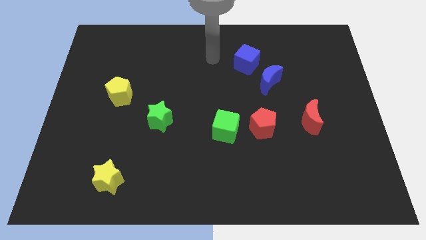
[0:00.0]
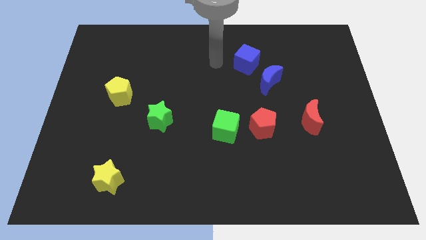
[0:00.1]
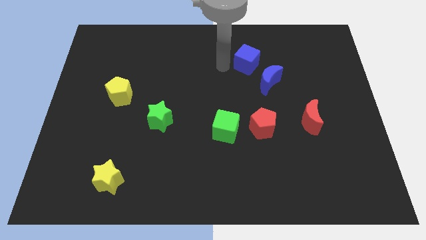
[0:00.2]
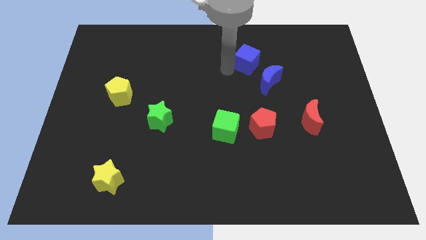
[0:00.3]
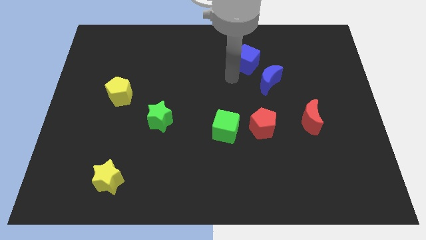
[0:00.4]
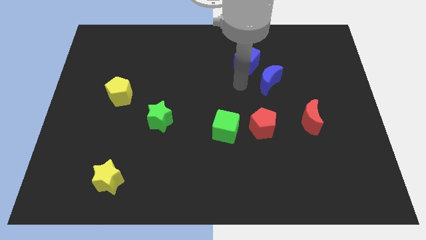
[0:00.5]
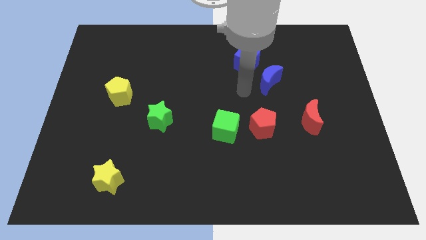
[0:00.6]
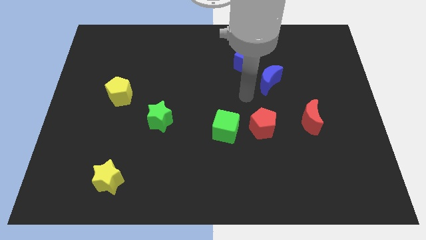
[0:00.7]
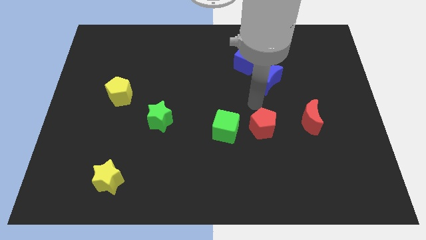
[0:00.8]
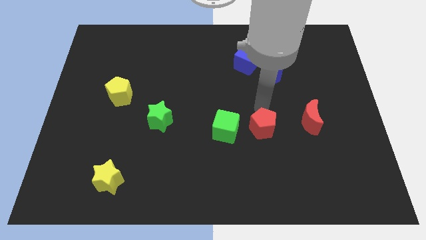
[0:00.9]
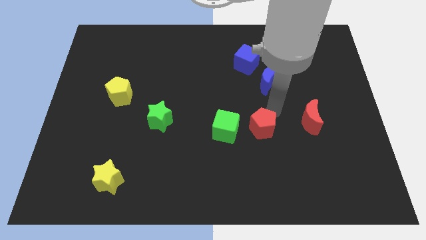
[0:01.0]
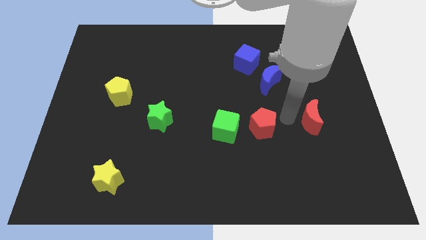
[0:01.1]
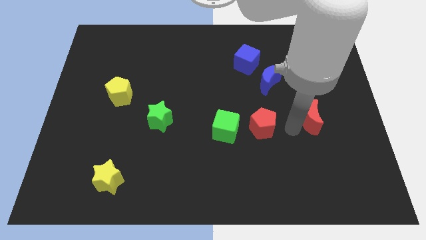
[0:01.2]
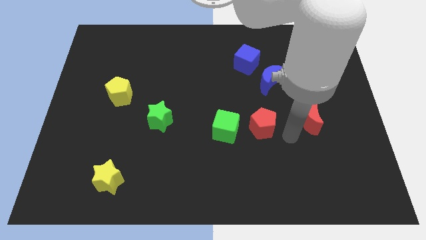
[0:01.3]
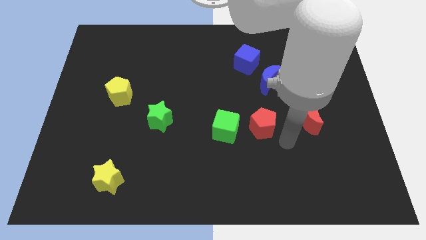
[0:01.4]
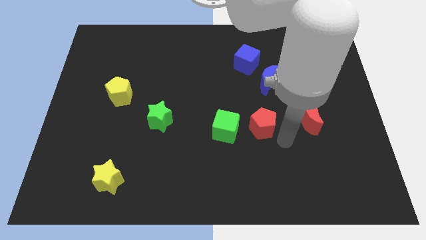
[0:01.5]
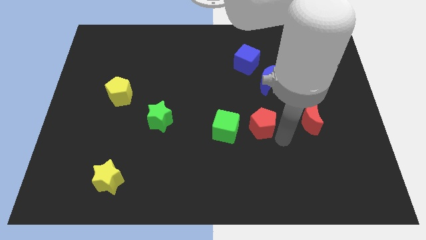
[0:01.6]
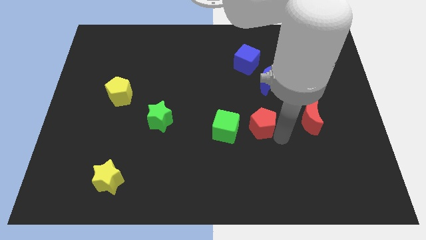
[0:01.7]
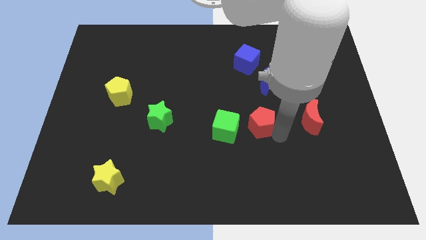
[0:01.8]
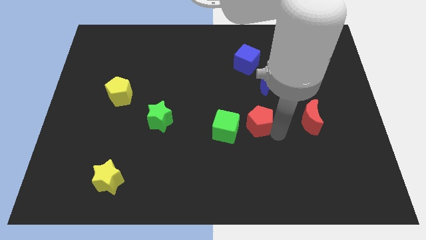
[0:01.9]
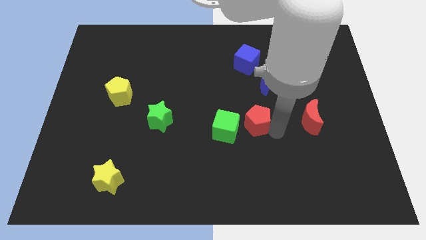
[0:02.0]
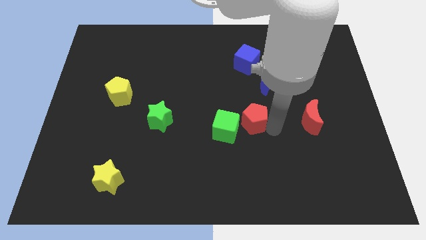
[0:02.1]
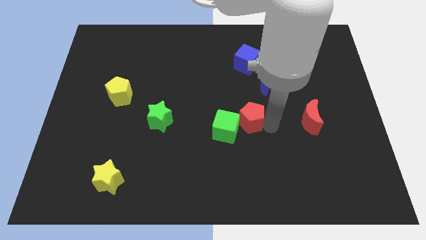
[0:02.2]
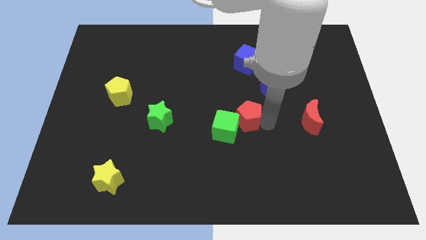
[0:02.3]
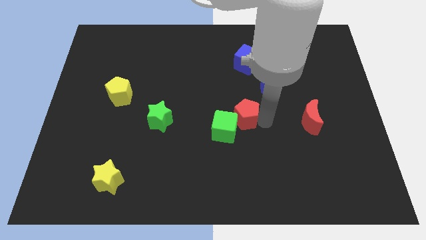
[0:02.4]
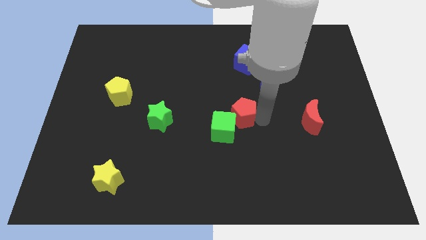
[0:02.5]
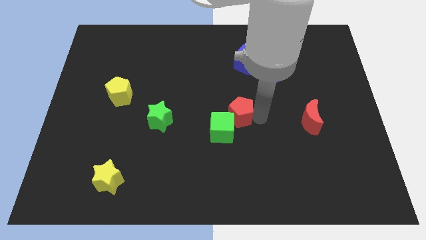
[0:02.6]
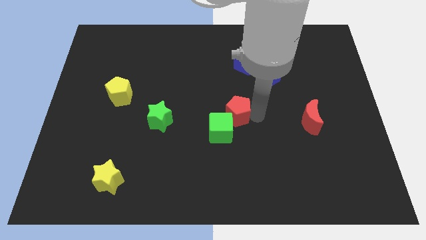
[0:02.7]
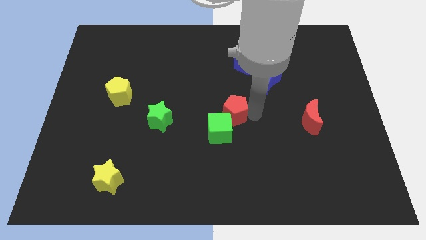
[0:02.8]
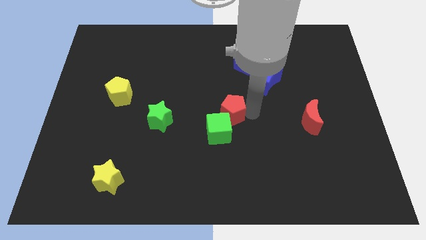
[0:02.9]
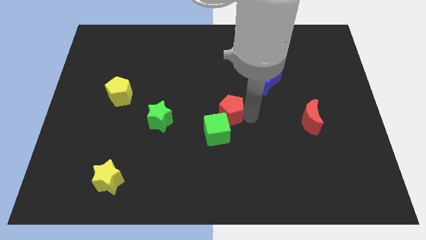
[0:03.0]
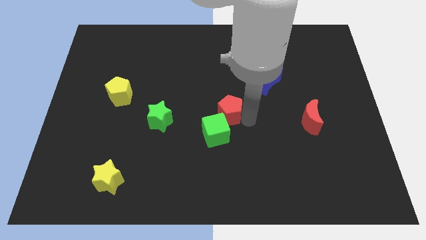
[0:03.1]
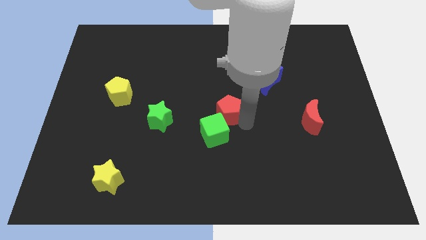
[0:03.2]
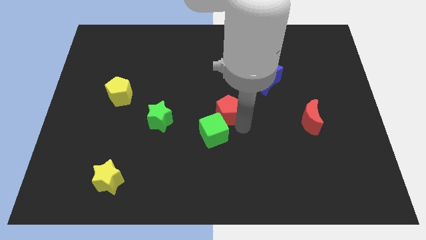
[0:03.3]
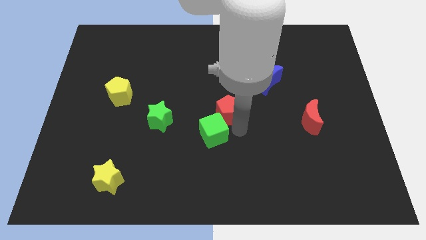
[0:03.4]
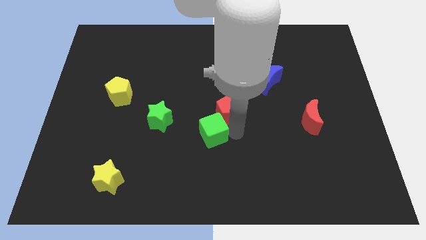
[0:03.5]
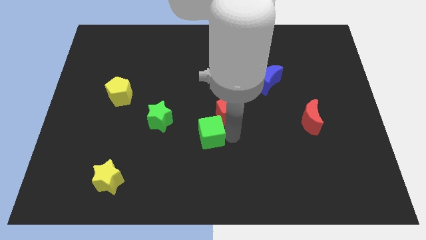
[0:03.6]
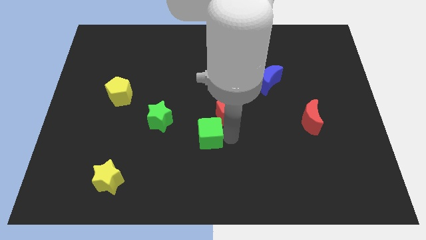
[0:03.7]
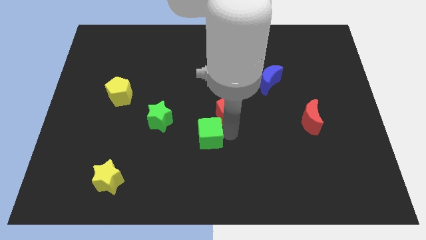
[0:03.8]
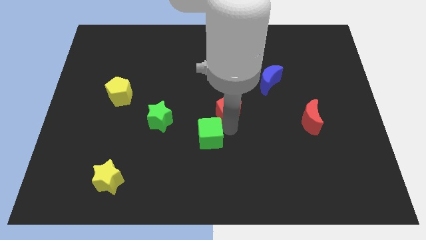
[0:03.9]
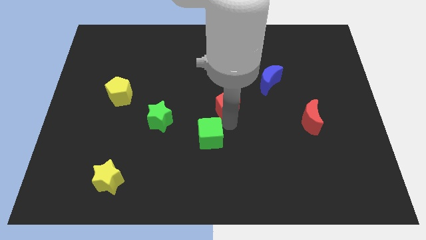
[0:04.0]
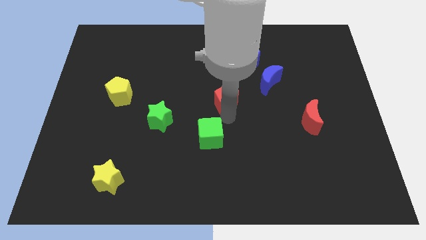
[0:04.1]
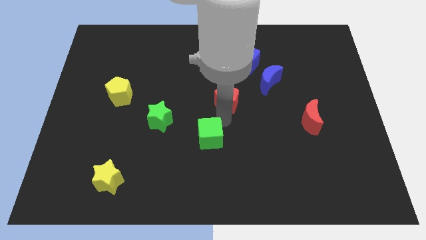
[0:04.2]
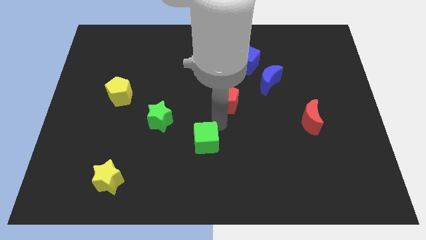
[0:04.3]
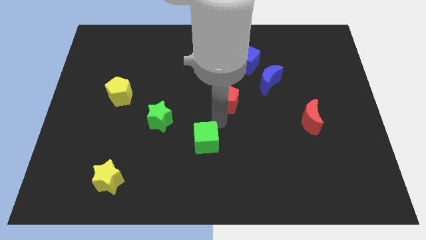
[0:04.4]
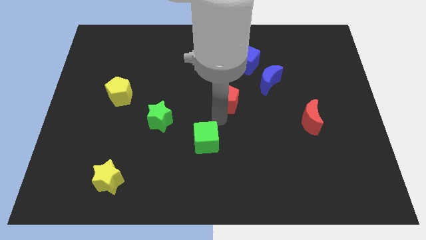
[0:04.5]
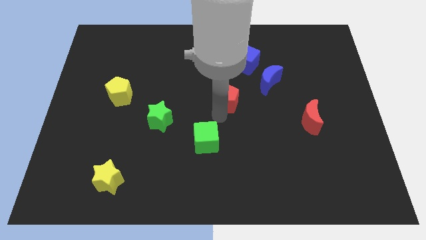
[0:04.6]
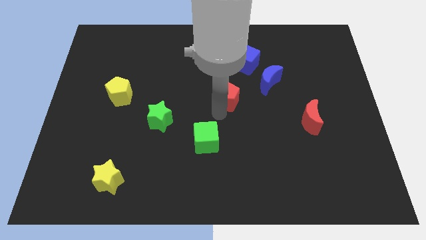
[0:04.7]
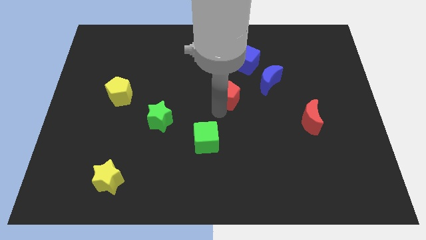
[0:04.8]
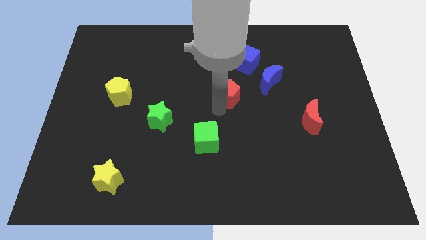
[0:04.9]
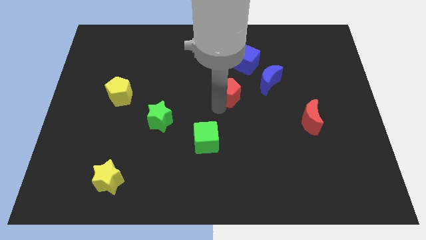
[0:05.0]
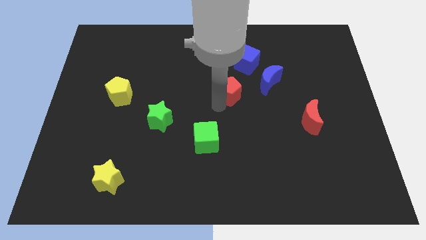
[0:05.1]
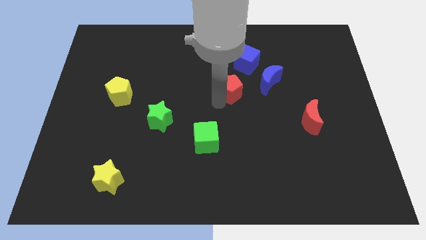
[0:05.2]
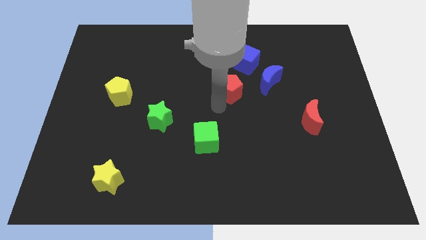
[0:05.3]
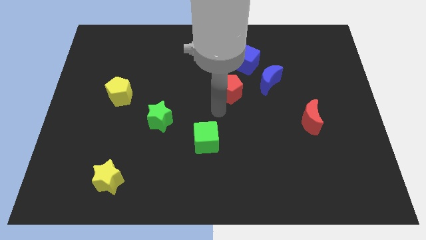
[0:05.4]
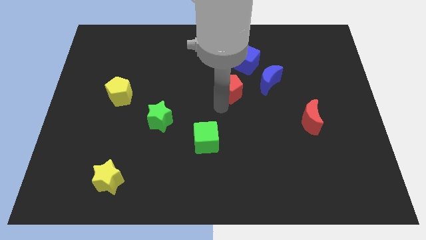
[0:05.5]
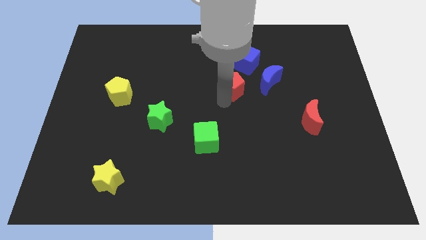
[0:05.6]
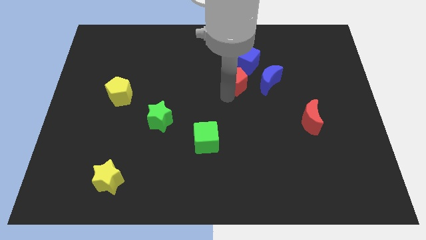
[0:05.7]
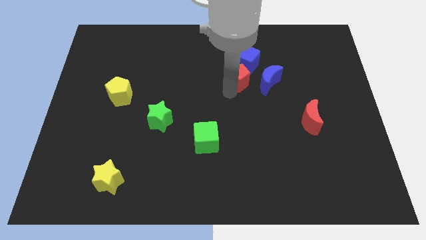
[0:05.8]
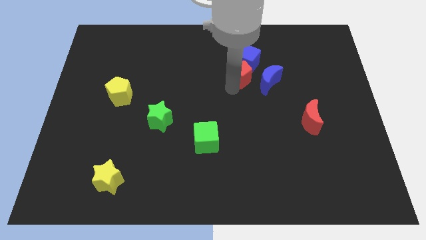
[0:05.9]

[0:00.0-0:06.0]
move the red pentagon next to the blue cube

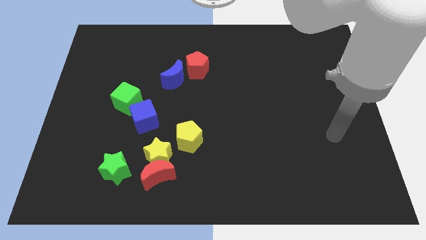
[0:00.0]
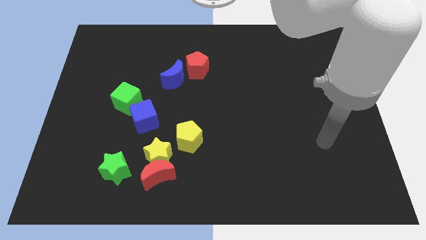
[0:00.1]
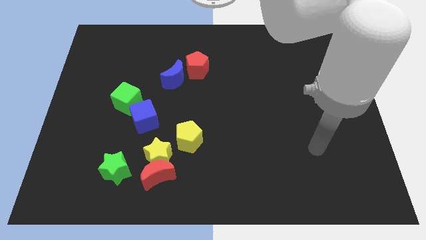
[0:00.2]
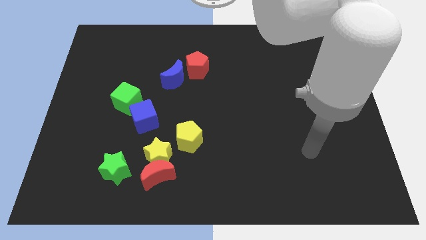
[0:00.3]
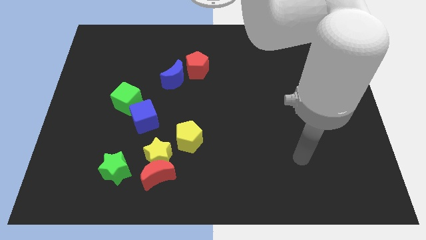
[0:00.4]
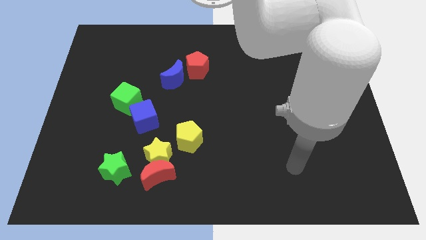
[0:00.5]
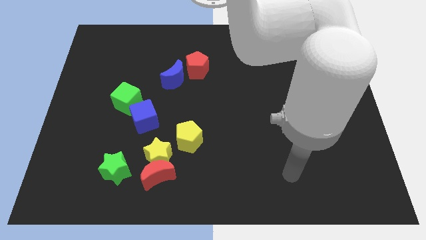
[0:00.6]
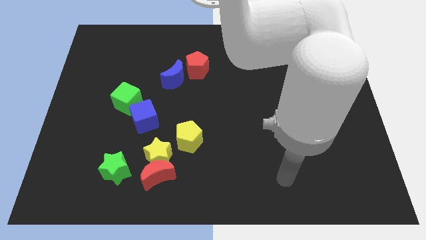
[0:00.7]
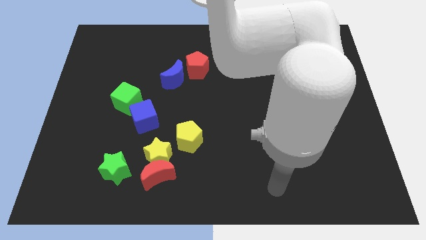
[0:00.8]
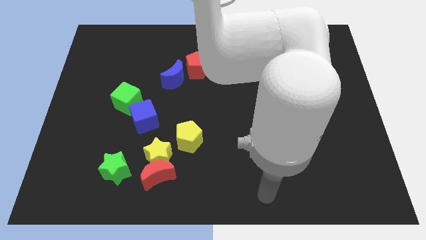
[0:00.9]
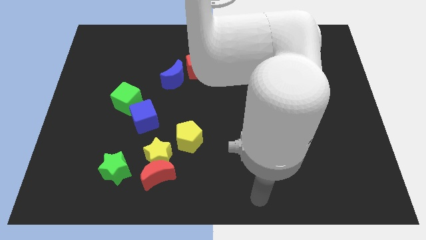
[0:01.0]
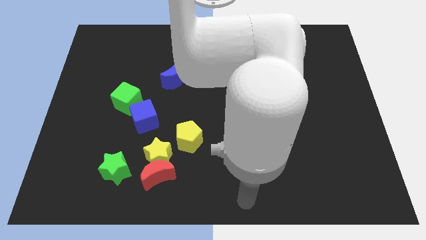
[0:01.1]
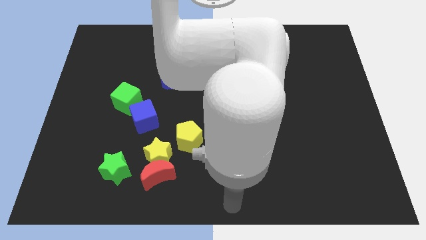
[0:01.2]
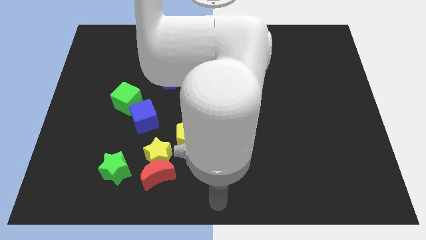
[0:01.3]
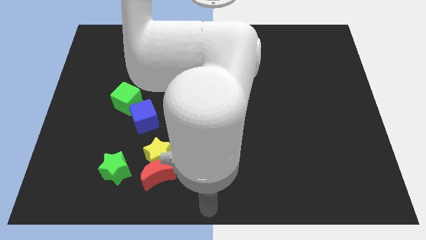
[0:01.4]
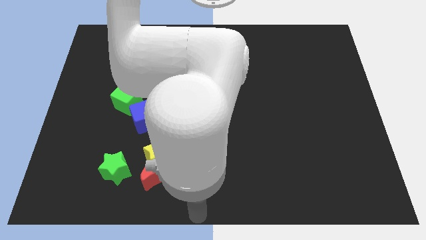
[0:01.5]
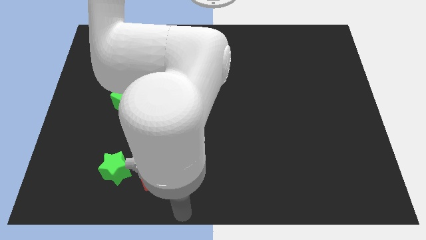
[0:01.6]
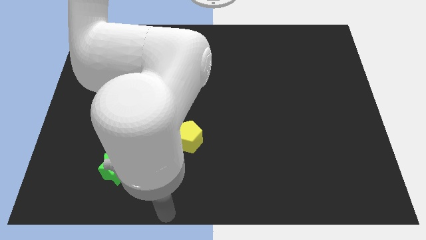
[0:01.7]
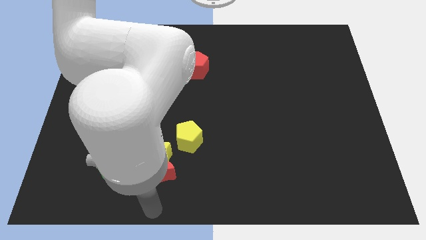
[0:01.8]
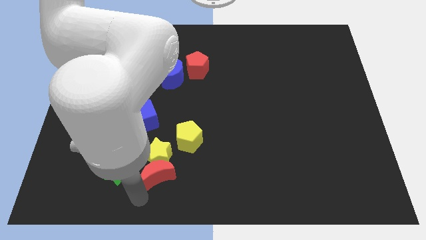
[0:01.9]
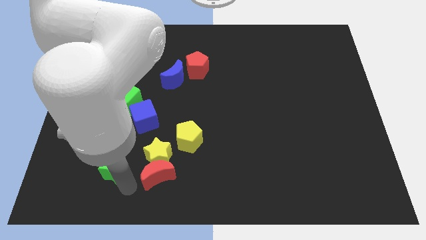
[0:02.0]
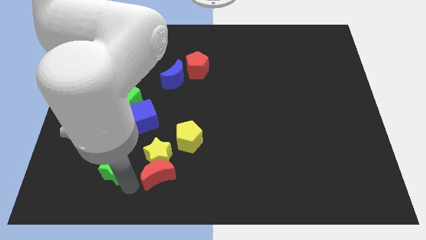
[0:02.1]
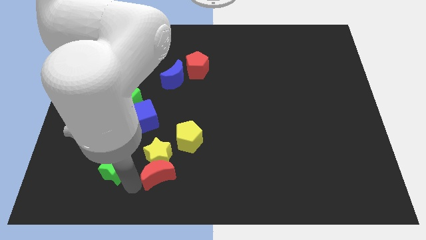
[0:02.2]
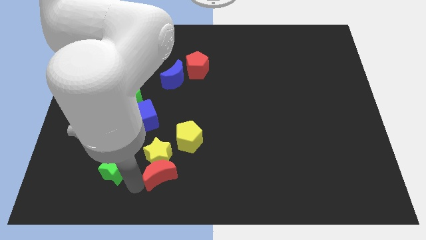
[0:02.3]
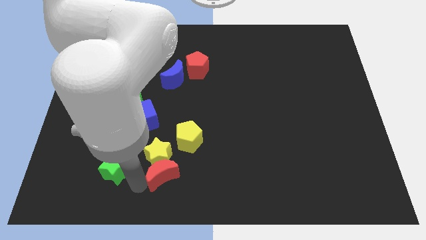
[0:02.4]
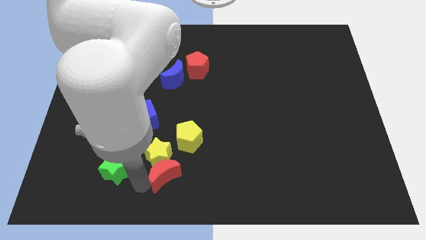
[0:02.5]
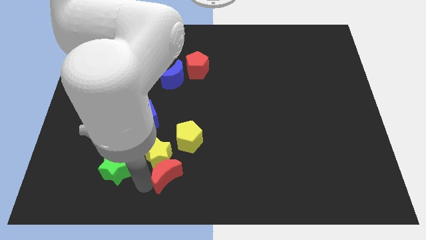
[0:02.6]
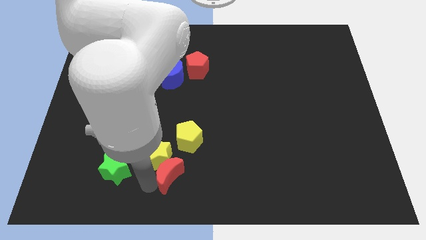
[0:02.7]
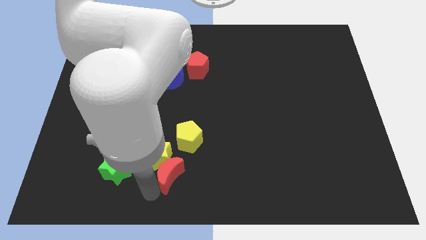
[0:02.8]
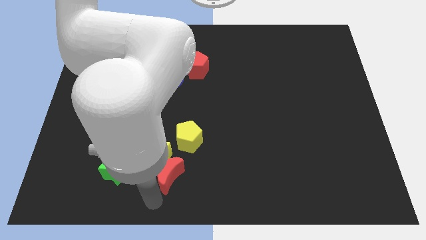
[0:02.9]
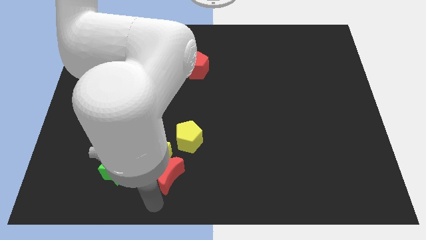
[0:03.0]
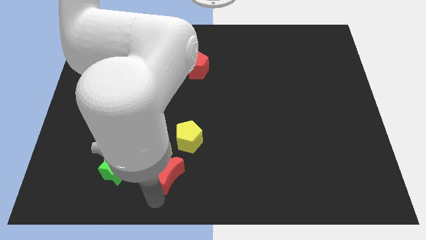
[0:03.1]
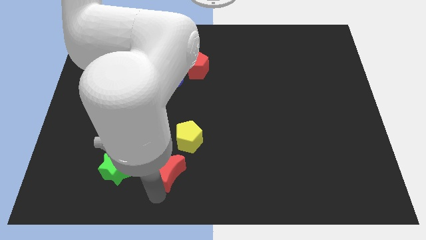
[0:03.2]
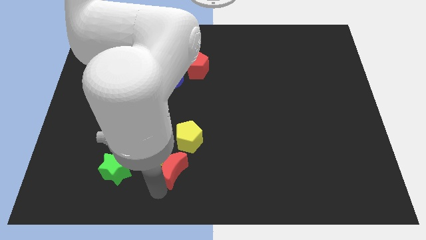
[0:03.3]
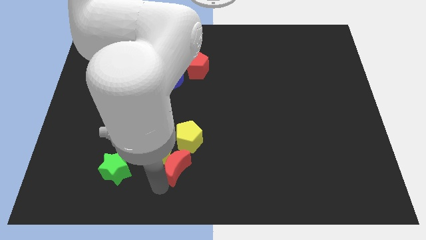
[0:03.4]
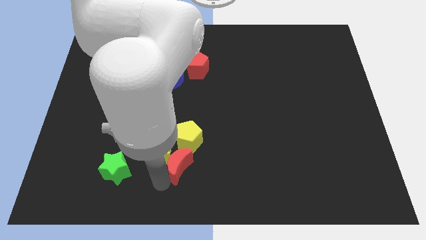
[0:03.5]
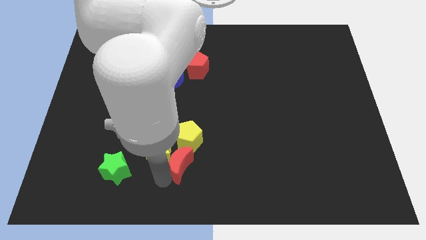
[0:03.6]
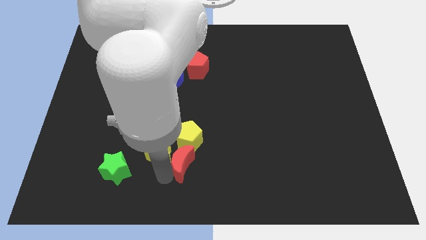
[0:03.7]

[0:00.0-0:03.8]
put the red moon to the yellow pentagon
